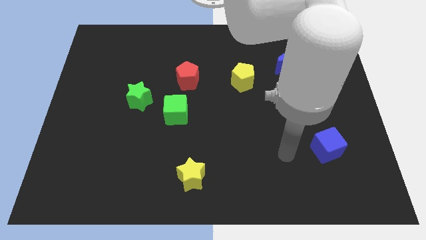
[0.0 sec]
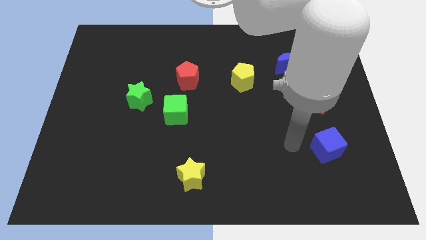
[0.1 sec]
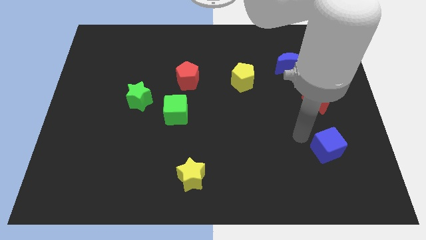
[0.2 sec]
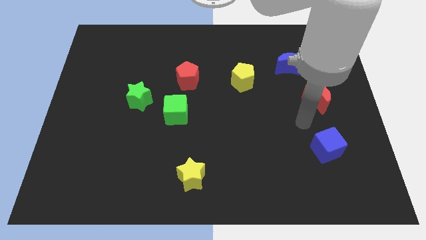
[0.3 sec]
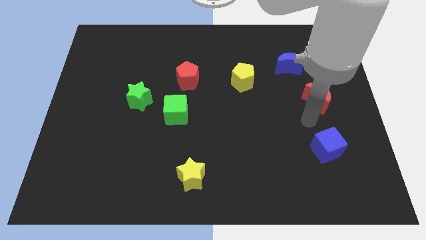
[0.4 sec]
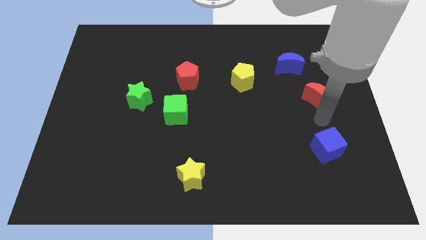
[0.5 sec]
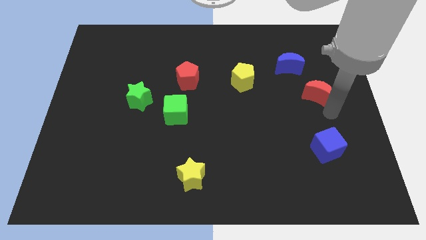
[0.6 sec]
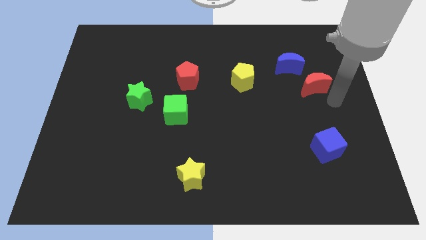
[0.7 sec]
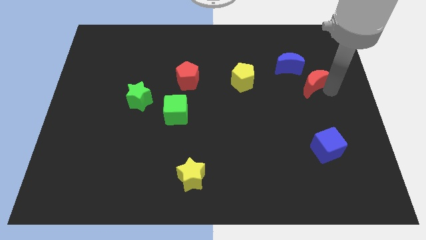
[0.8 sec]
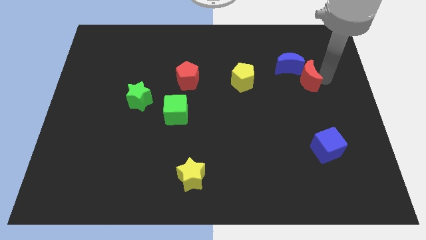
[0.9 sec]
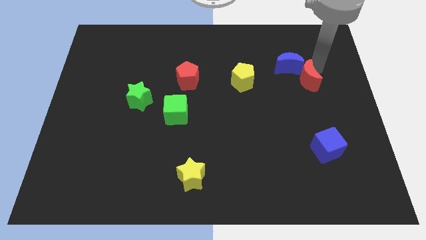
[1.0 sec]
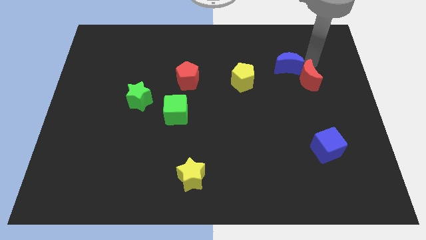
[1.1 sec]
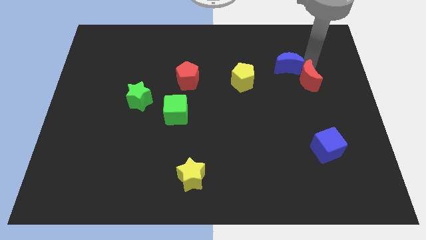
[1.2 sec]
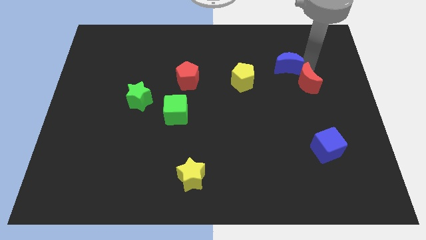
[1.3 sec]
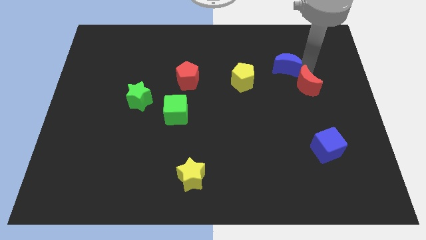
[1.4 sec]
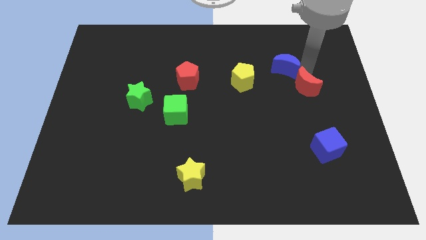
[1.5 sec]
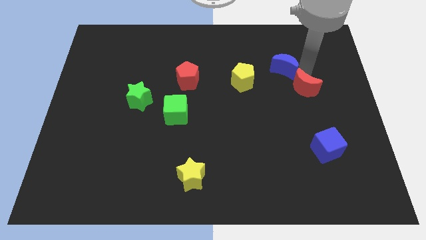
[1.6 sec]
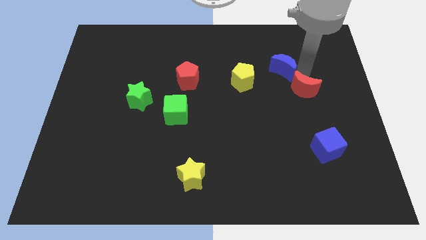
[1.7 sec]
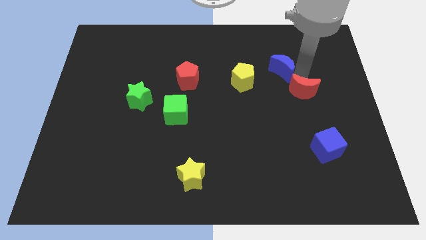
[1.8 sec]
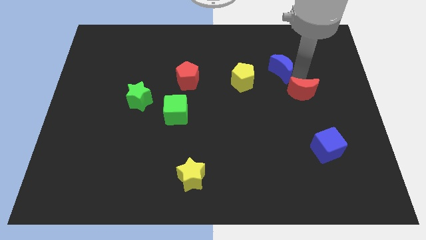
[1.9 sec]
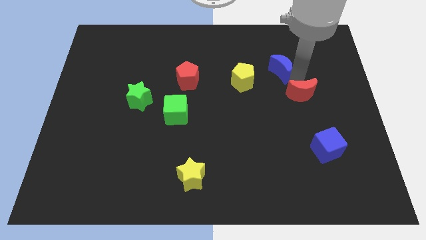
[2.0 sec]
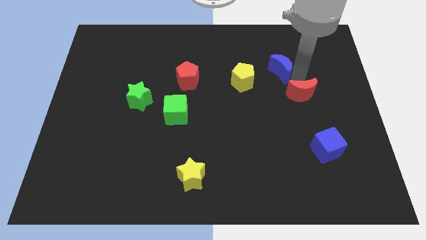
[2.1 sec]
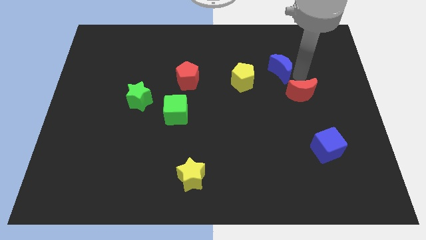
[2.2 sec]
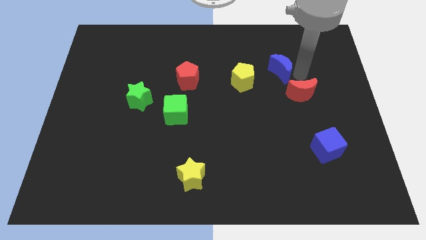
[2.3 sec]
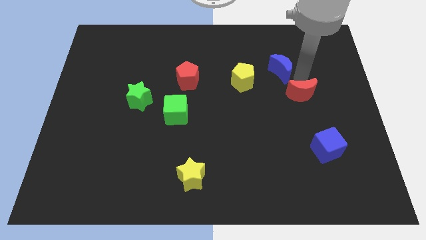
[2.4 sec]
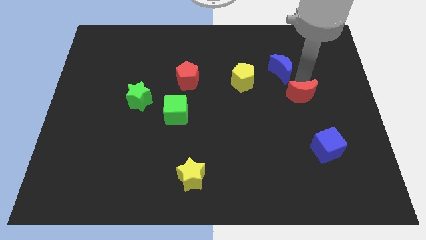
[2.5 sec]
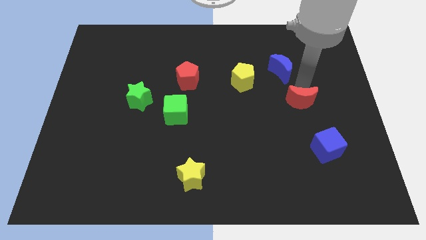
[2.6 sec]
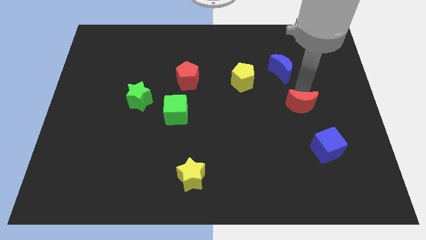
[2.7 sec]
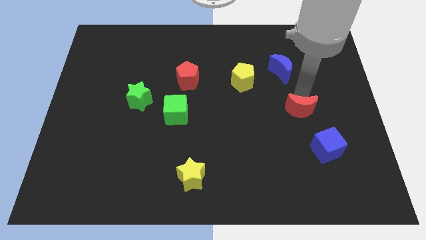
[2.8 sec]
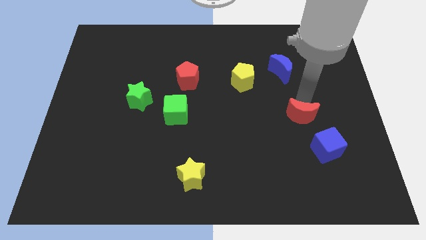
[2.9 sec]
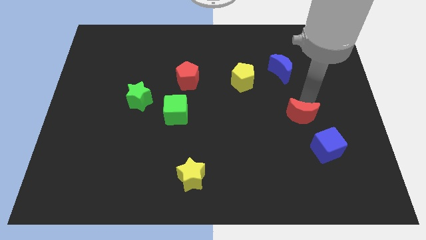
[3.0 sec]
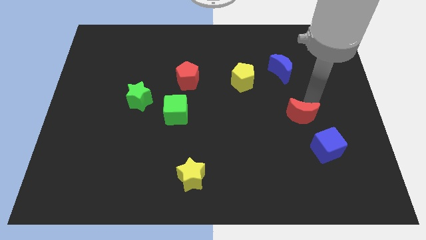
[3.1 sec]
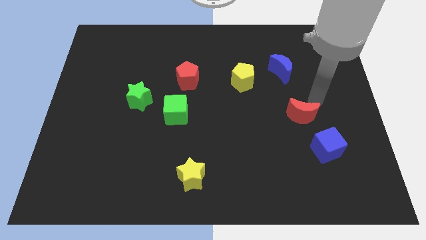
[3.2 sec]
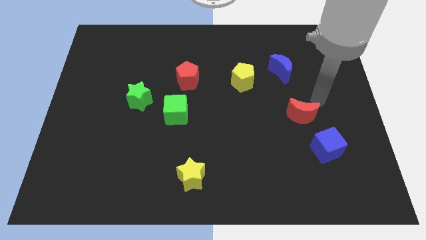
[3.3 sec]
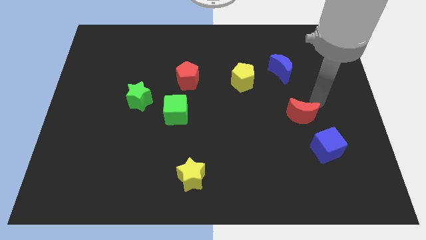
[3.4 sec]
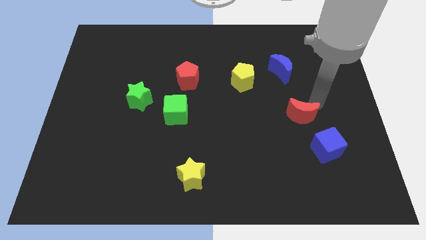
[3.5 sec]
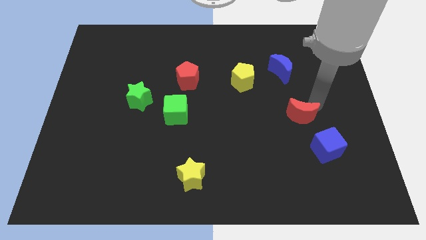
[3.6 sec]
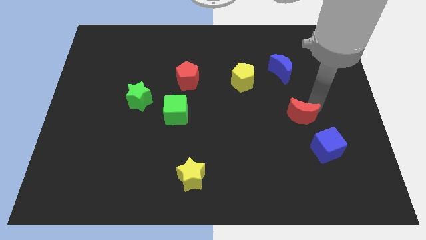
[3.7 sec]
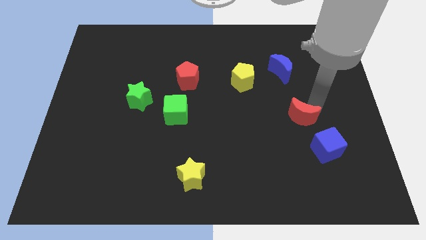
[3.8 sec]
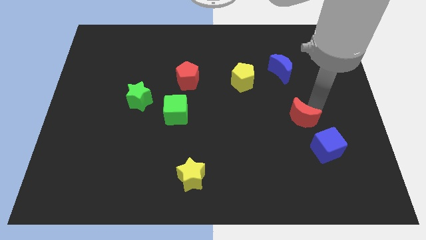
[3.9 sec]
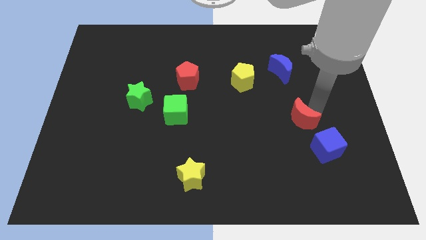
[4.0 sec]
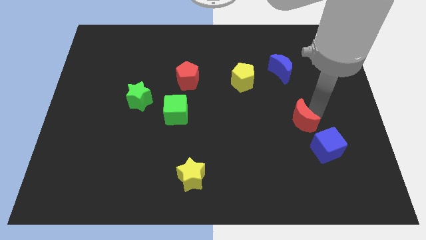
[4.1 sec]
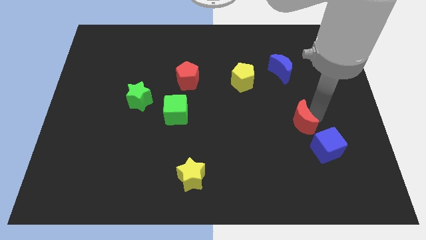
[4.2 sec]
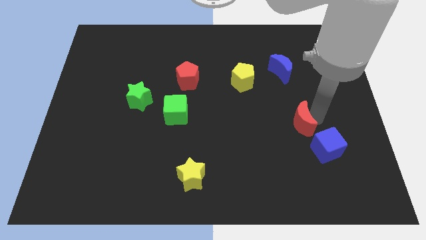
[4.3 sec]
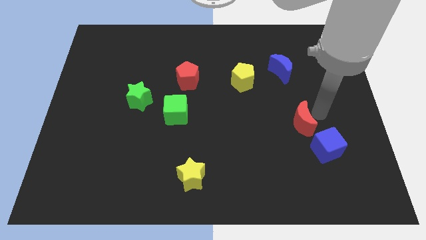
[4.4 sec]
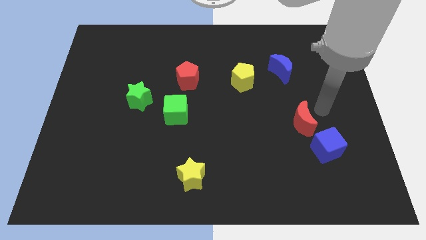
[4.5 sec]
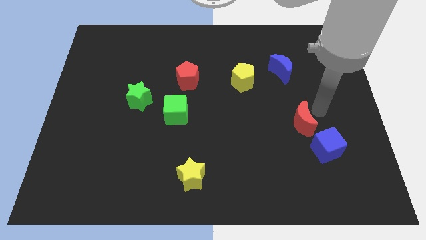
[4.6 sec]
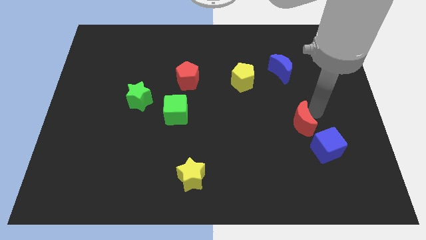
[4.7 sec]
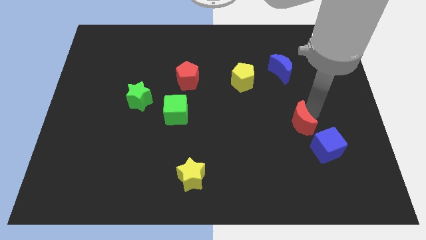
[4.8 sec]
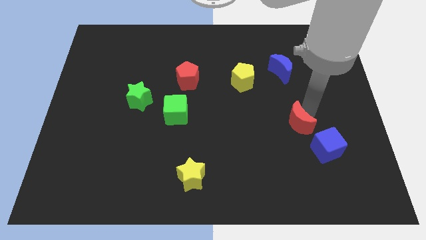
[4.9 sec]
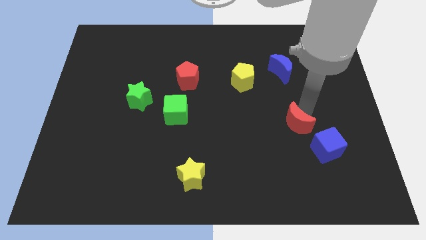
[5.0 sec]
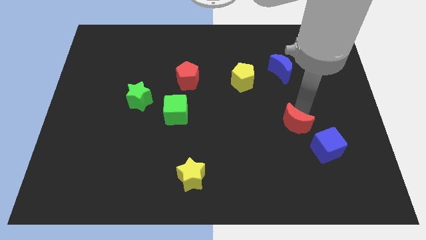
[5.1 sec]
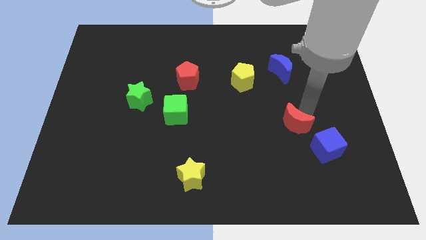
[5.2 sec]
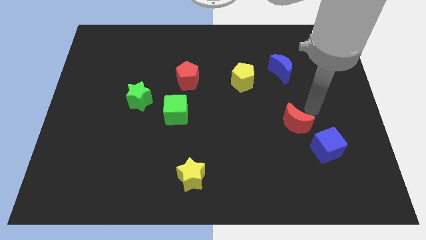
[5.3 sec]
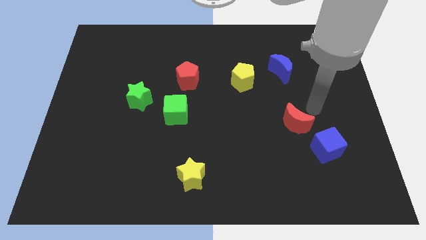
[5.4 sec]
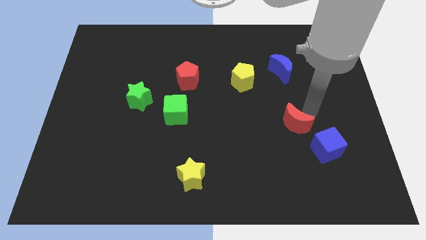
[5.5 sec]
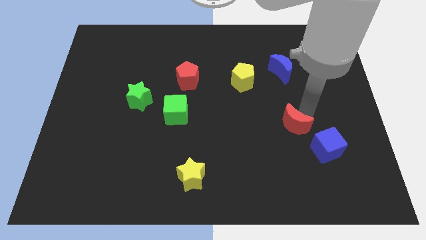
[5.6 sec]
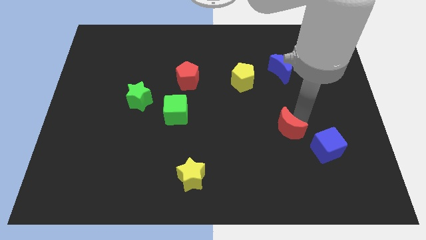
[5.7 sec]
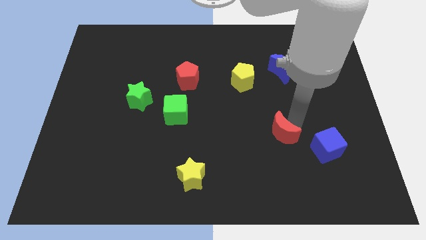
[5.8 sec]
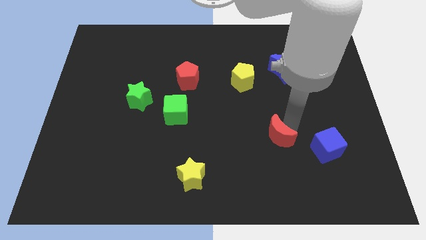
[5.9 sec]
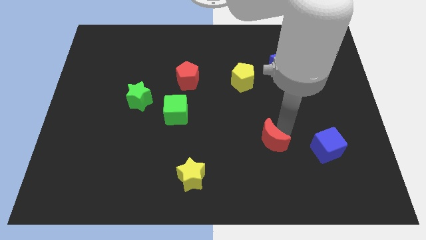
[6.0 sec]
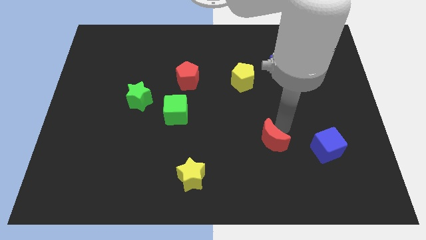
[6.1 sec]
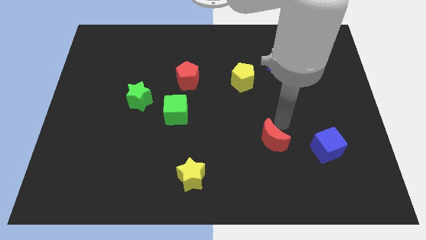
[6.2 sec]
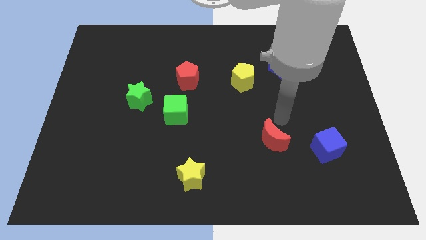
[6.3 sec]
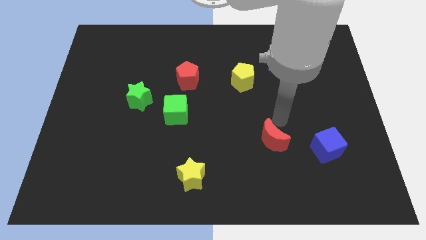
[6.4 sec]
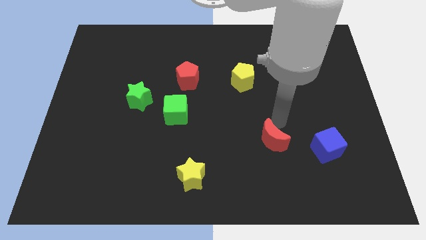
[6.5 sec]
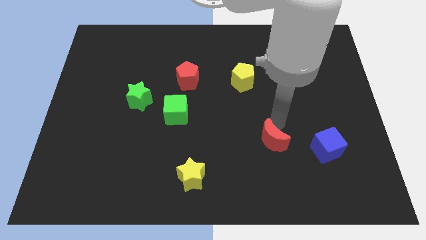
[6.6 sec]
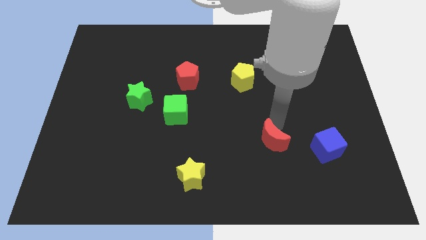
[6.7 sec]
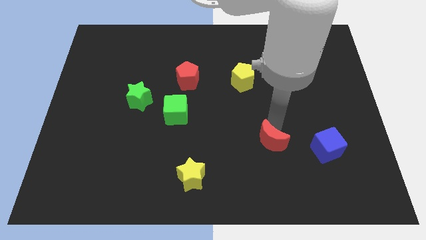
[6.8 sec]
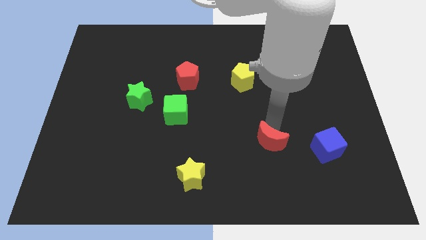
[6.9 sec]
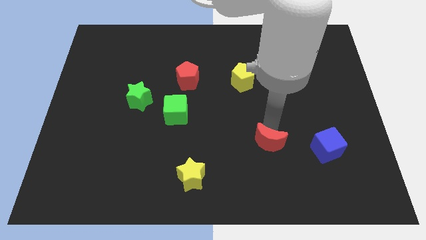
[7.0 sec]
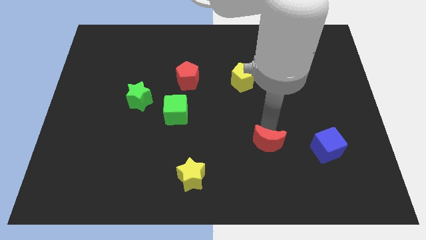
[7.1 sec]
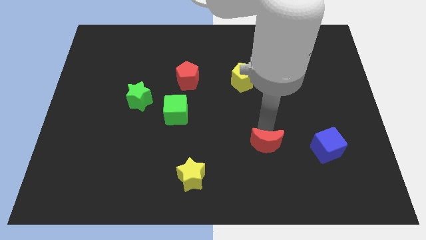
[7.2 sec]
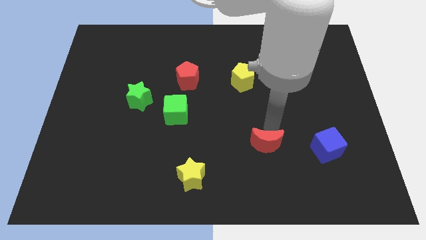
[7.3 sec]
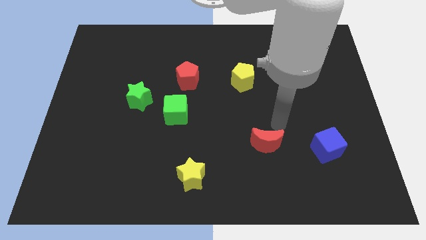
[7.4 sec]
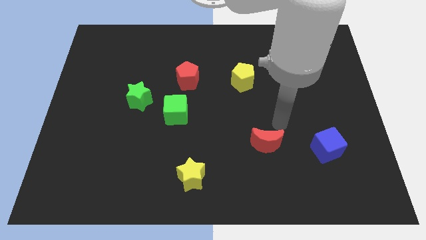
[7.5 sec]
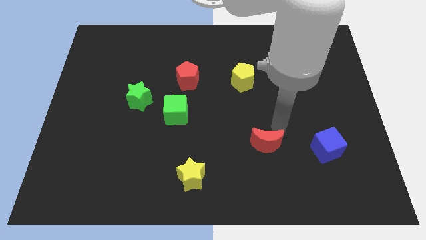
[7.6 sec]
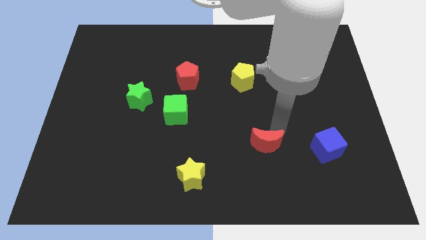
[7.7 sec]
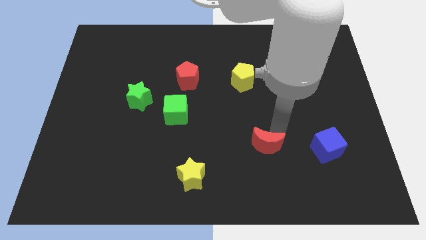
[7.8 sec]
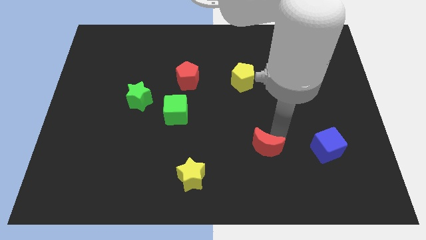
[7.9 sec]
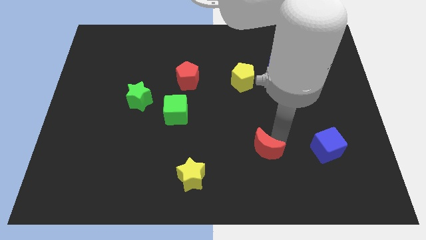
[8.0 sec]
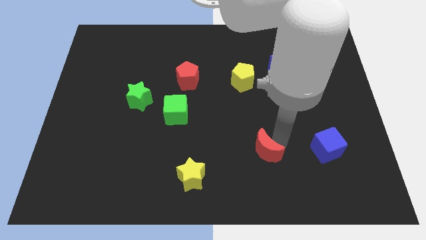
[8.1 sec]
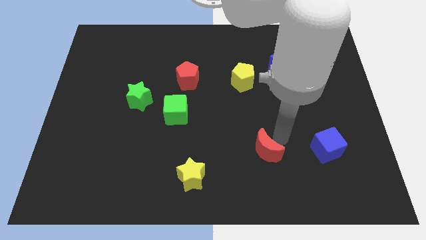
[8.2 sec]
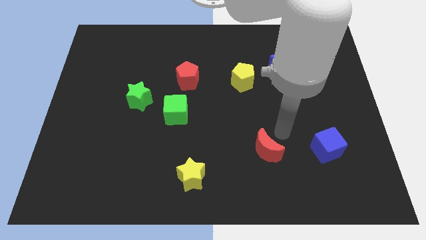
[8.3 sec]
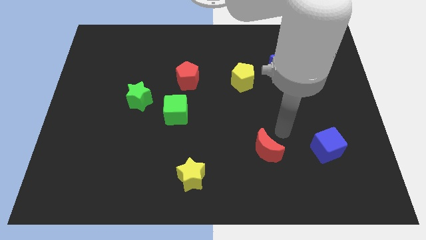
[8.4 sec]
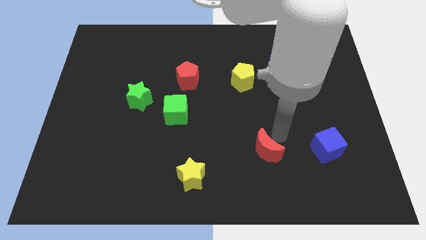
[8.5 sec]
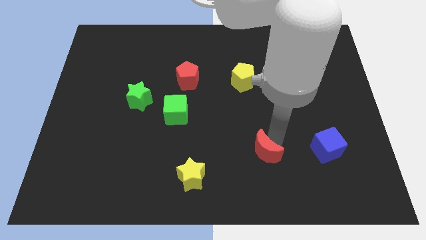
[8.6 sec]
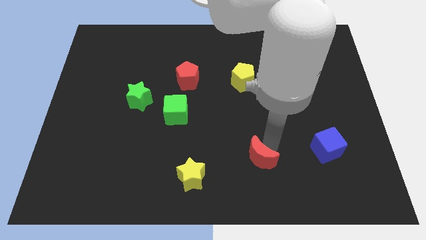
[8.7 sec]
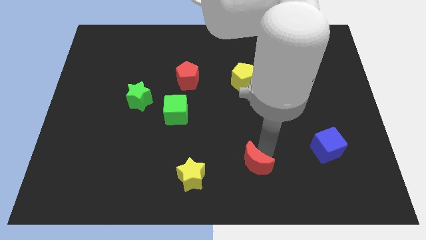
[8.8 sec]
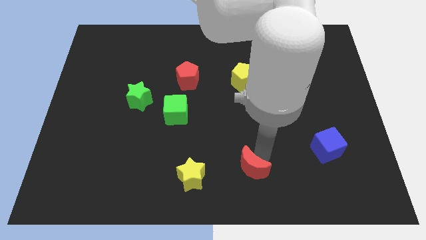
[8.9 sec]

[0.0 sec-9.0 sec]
put the red moon to the bottom side
